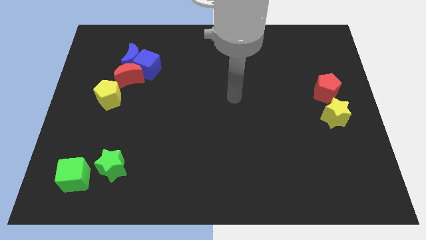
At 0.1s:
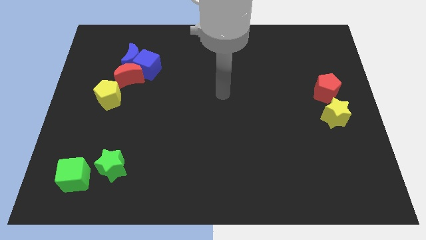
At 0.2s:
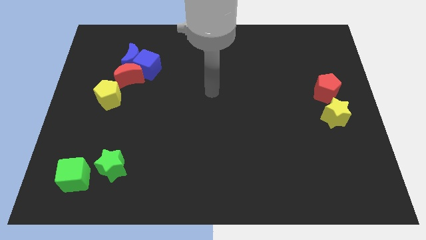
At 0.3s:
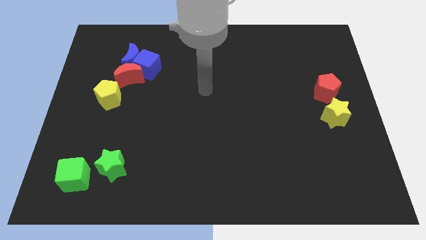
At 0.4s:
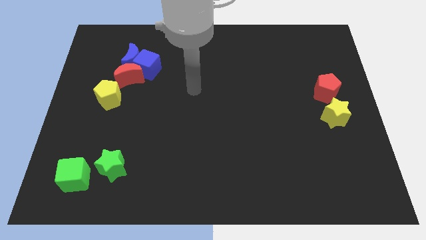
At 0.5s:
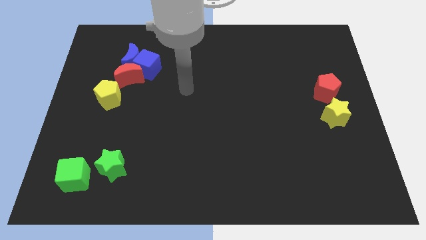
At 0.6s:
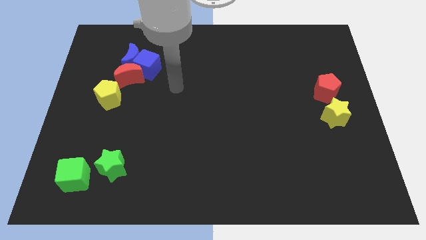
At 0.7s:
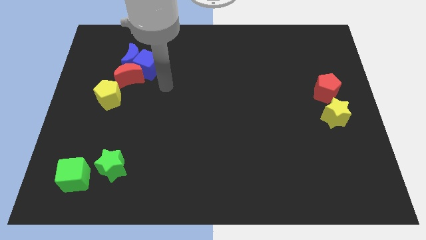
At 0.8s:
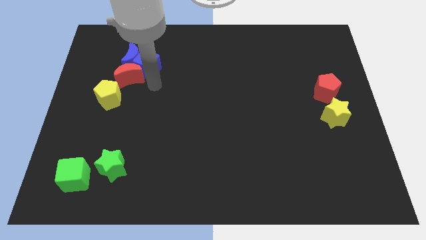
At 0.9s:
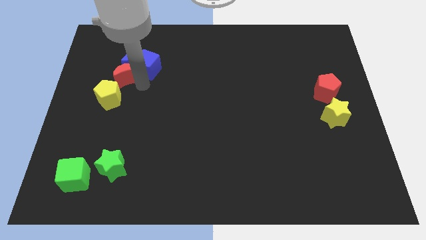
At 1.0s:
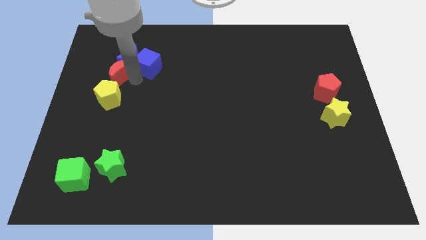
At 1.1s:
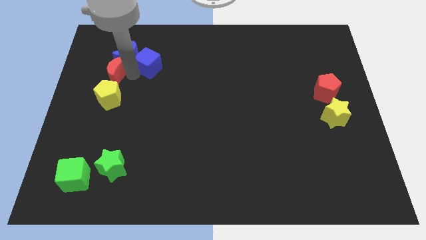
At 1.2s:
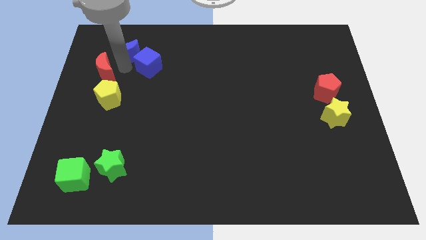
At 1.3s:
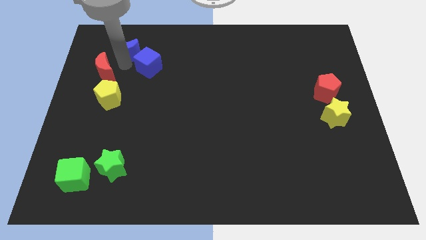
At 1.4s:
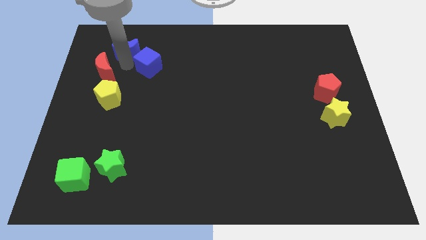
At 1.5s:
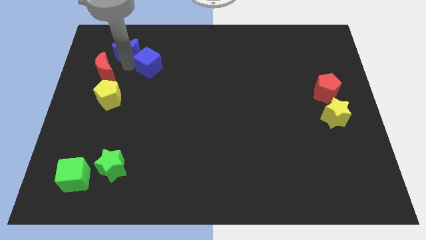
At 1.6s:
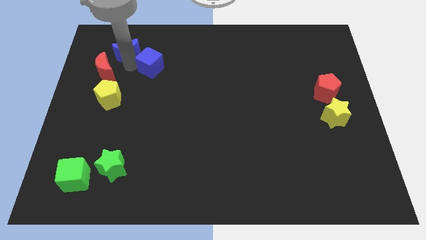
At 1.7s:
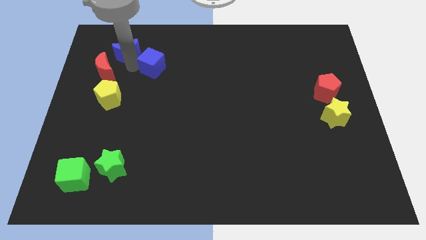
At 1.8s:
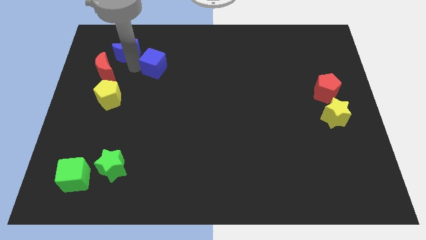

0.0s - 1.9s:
separate the blue cube from the blue moon and red moon

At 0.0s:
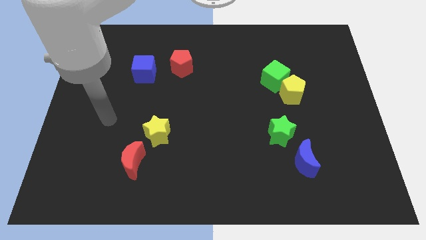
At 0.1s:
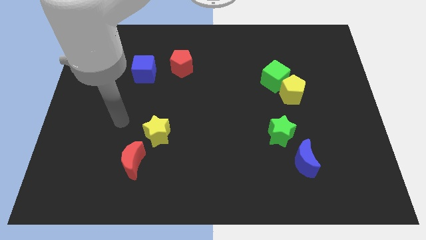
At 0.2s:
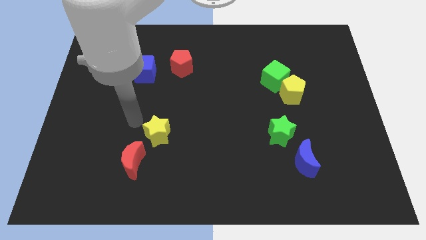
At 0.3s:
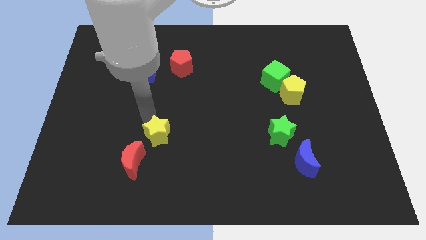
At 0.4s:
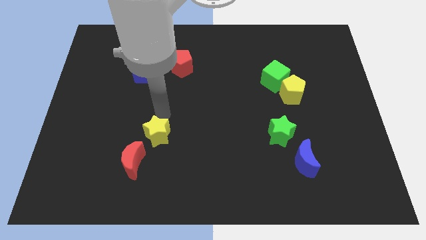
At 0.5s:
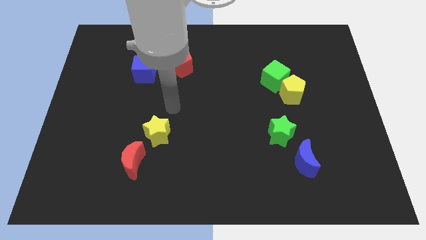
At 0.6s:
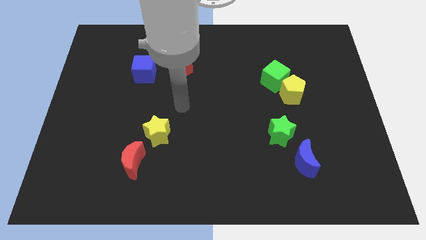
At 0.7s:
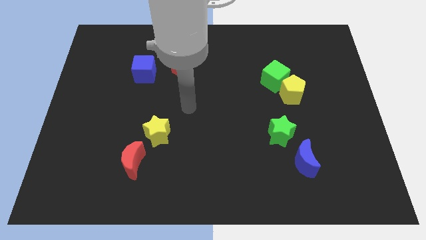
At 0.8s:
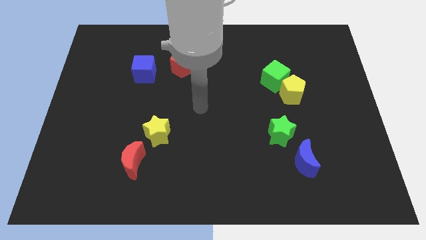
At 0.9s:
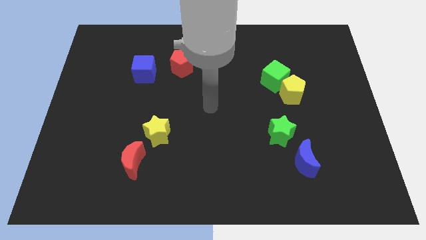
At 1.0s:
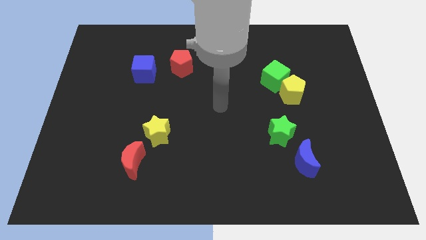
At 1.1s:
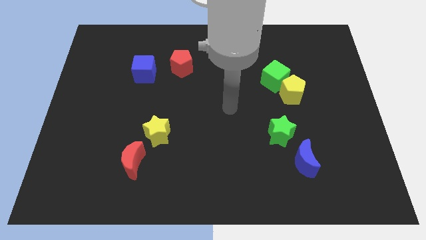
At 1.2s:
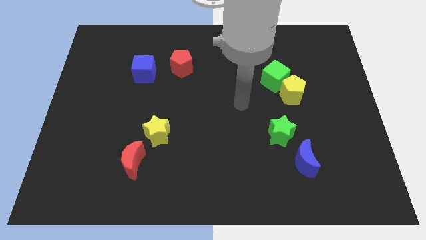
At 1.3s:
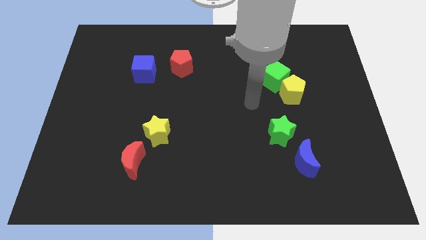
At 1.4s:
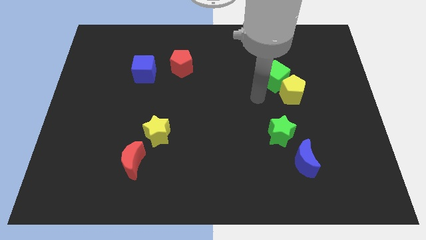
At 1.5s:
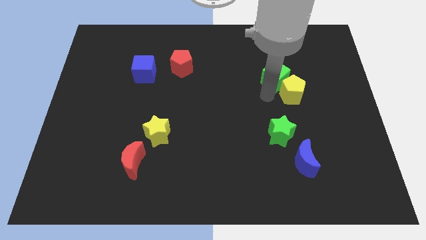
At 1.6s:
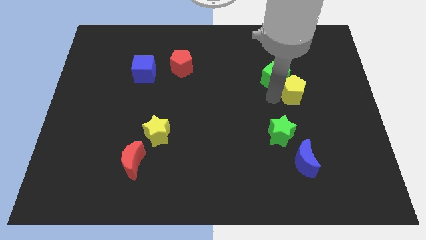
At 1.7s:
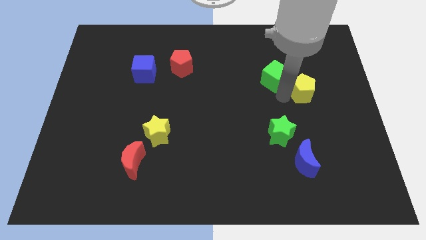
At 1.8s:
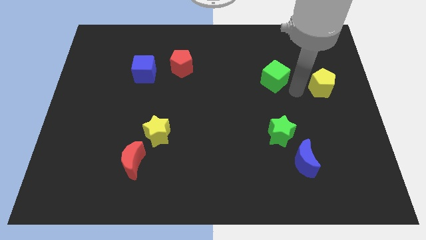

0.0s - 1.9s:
pull the green cube apart from the yellow pentagon

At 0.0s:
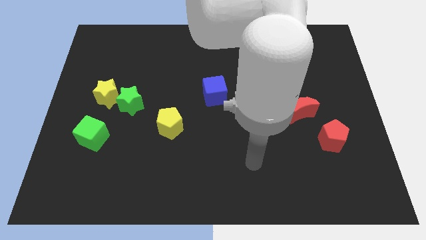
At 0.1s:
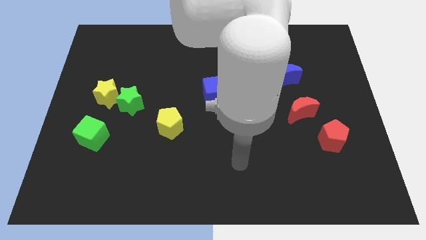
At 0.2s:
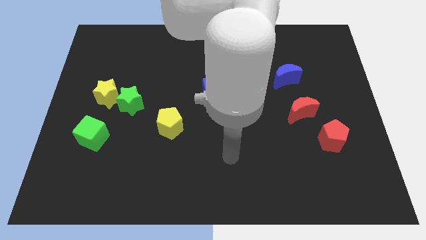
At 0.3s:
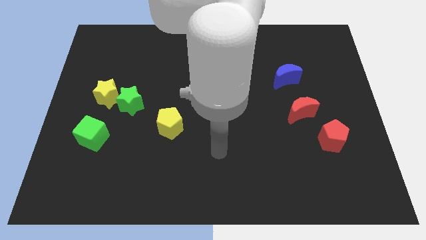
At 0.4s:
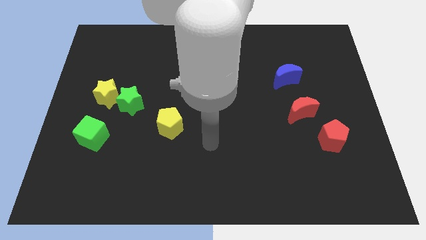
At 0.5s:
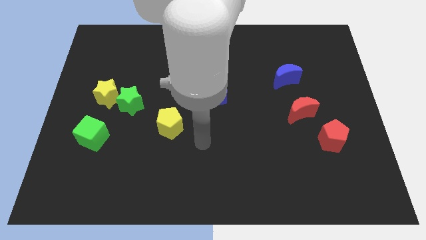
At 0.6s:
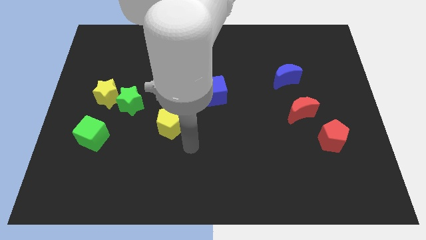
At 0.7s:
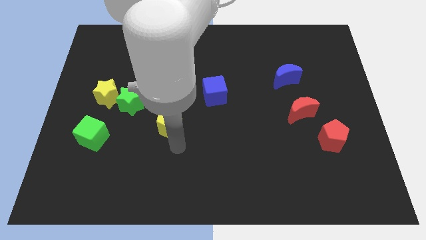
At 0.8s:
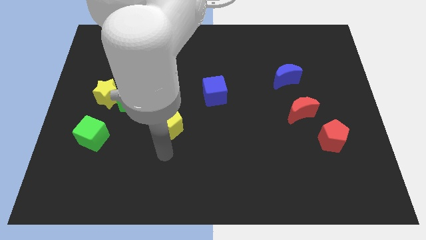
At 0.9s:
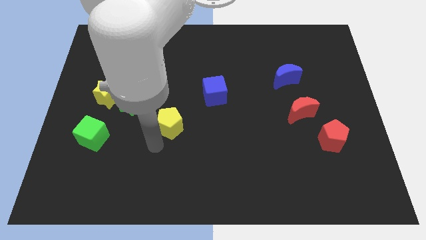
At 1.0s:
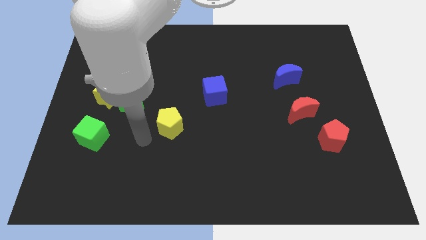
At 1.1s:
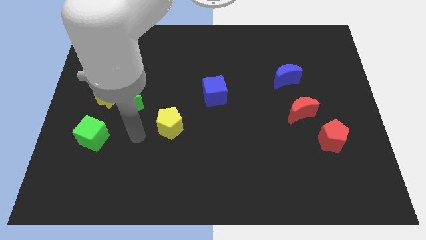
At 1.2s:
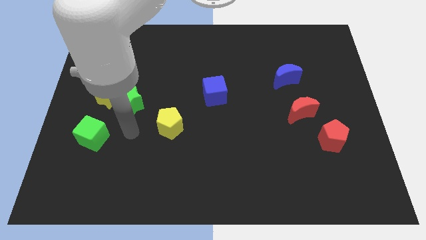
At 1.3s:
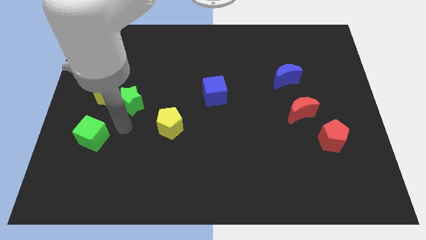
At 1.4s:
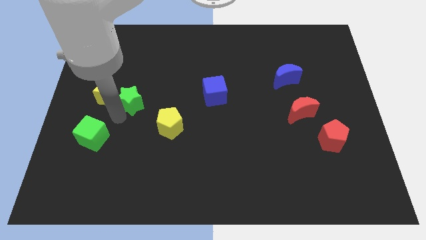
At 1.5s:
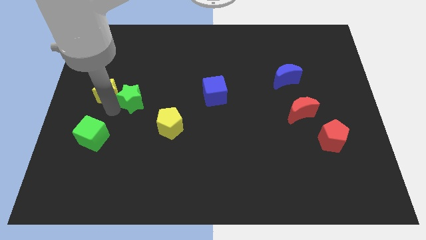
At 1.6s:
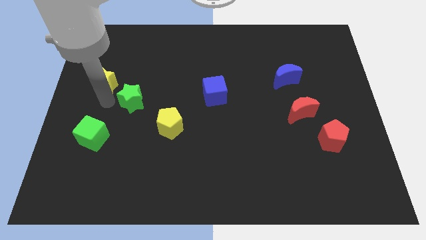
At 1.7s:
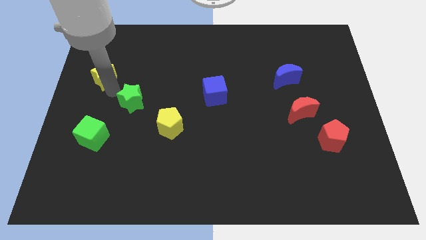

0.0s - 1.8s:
separate the green star from the yellow star

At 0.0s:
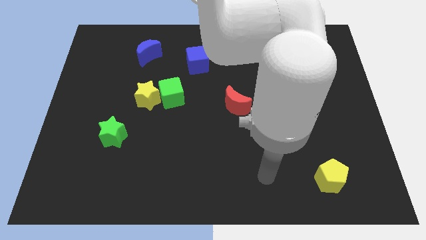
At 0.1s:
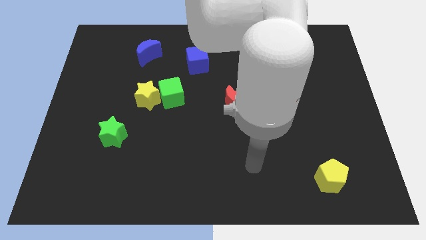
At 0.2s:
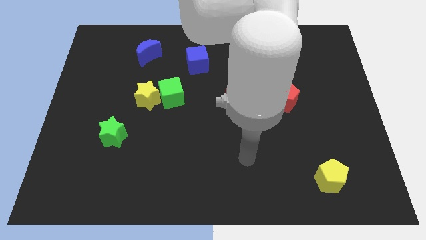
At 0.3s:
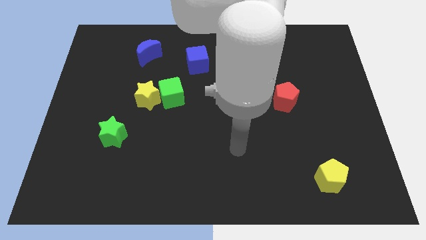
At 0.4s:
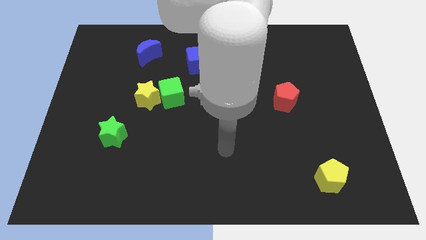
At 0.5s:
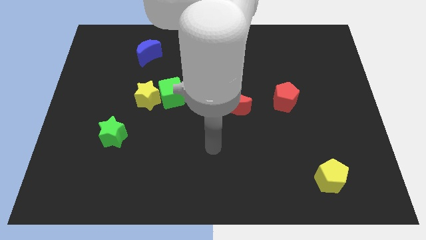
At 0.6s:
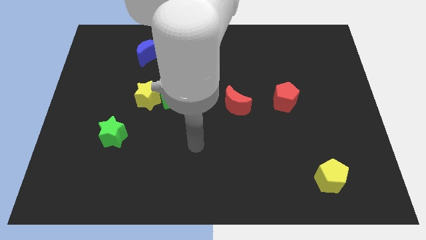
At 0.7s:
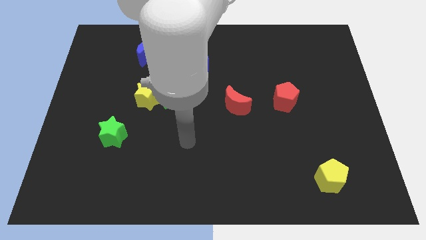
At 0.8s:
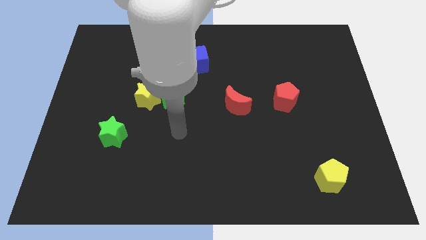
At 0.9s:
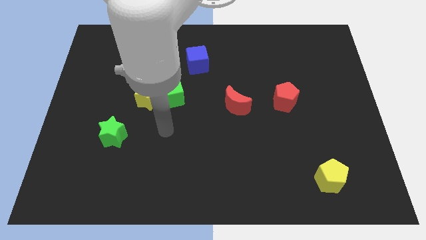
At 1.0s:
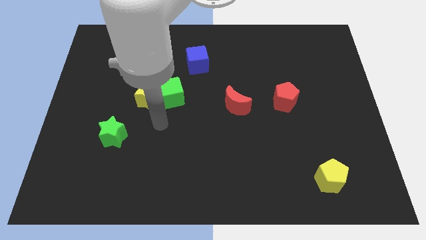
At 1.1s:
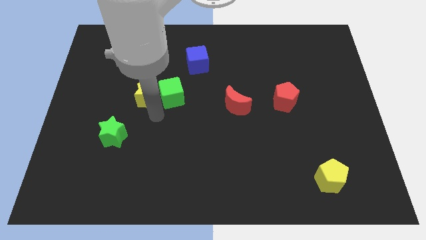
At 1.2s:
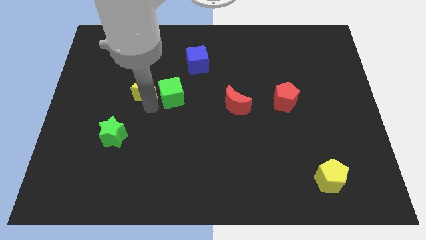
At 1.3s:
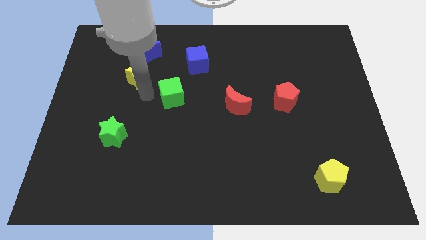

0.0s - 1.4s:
move the green cube away from the yellow star

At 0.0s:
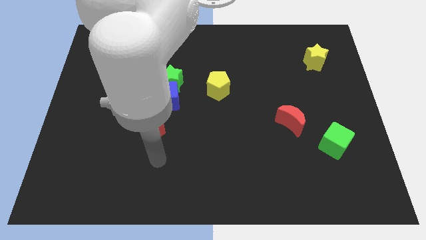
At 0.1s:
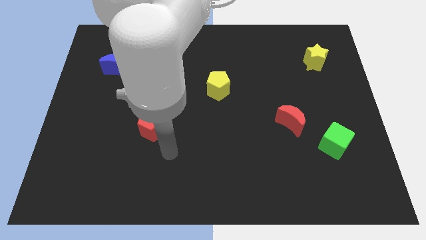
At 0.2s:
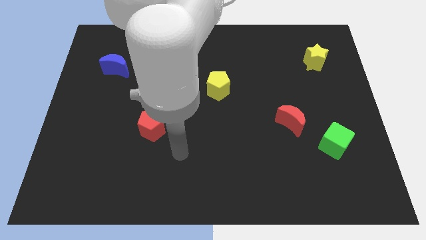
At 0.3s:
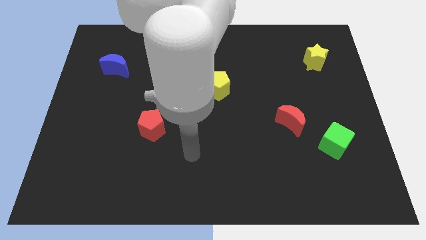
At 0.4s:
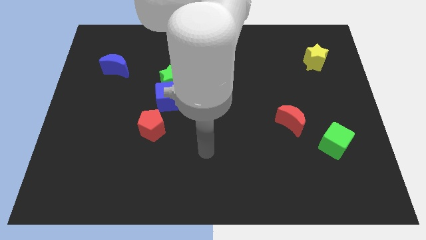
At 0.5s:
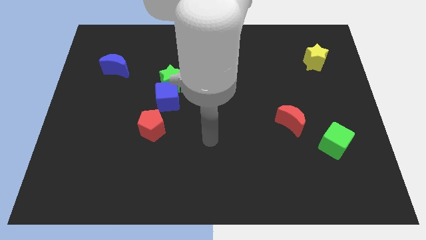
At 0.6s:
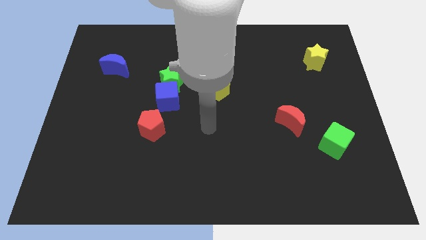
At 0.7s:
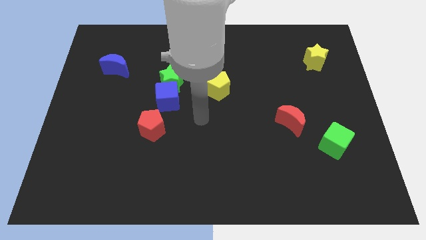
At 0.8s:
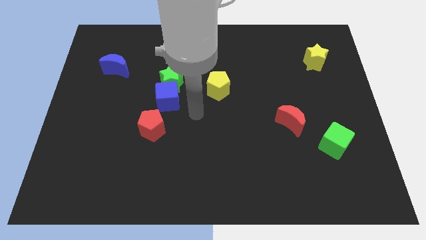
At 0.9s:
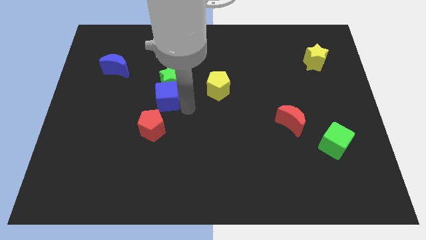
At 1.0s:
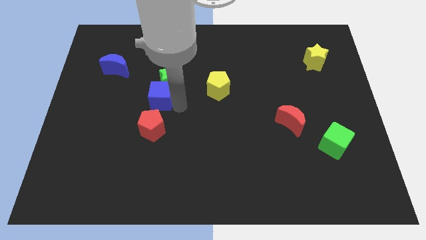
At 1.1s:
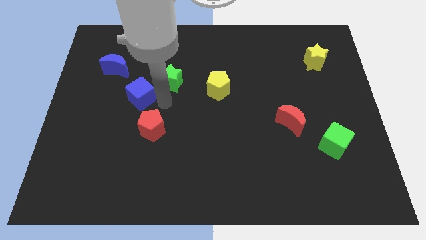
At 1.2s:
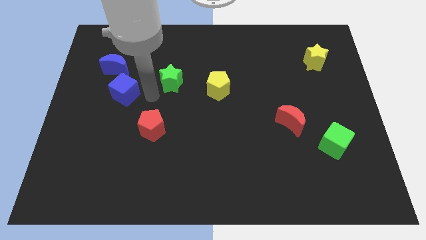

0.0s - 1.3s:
pull the green star apart from the blue cube

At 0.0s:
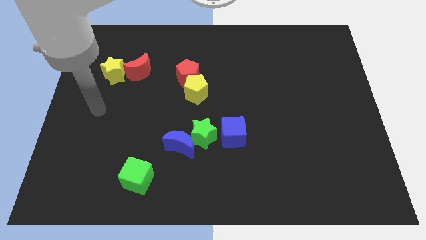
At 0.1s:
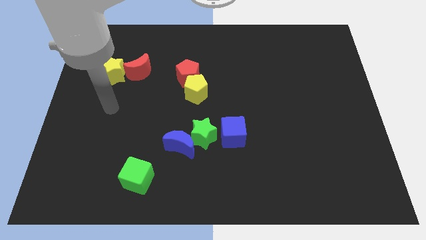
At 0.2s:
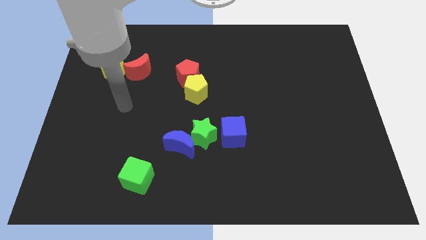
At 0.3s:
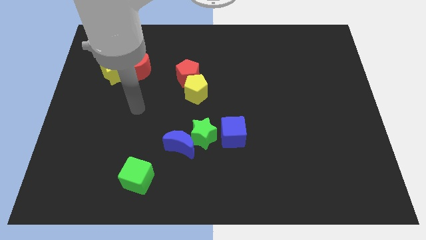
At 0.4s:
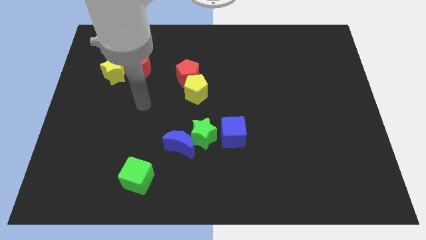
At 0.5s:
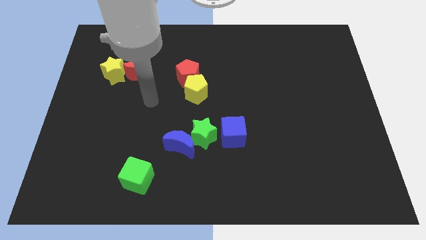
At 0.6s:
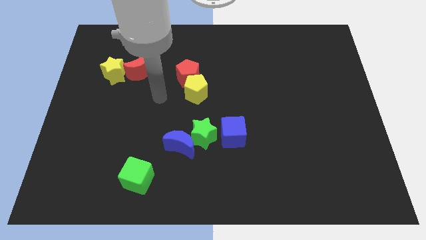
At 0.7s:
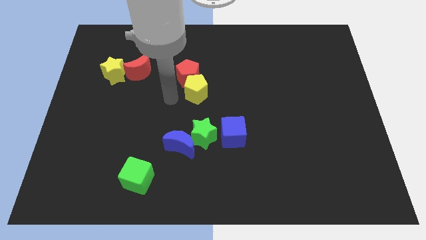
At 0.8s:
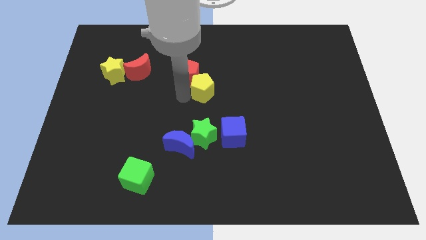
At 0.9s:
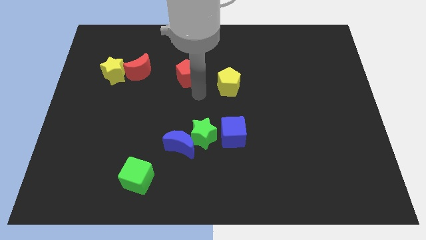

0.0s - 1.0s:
pull the red pentagon apart from the yellow pentagon
